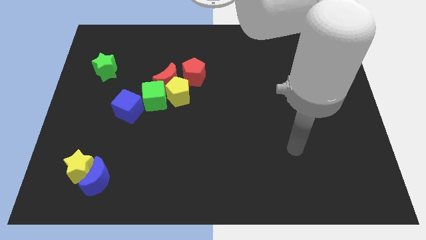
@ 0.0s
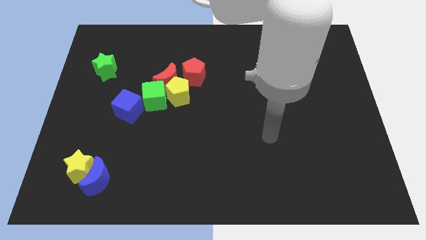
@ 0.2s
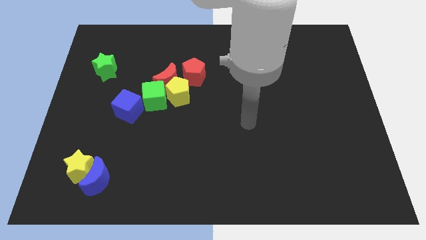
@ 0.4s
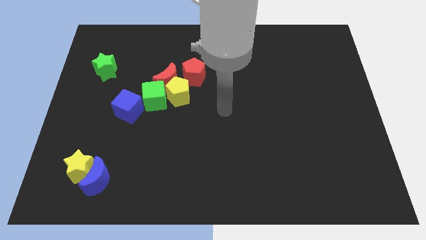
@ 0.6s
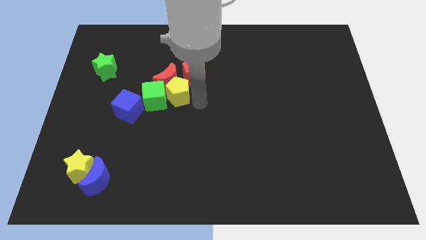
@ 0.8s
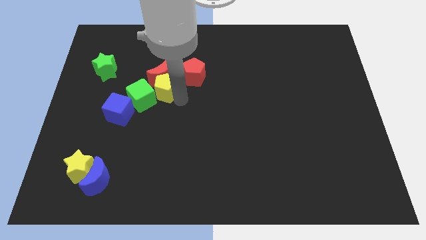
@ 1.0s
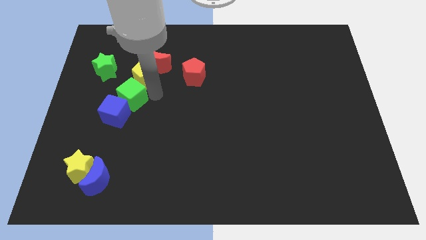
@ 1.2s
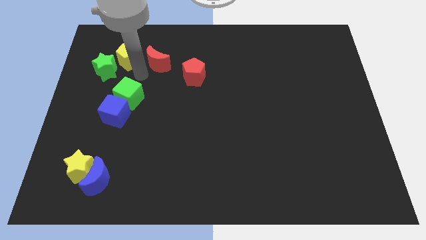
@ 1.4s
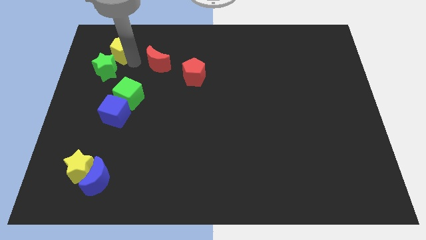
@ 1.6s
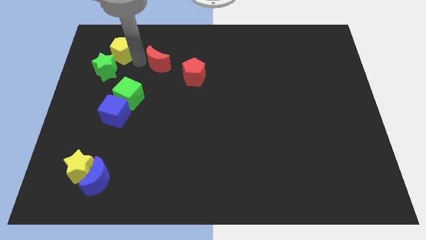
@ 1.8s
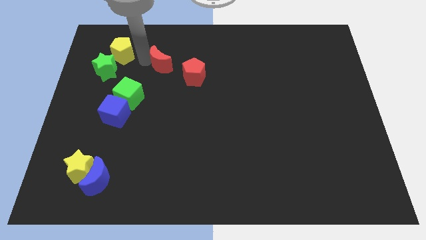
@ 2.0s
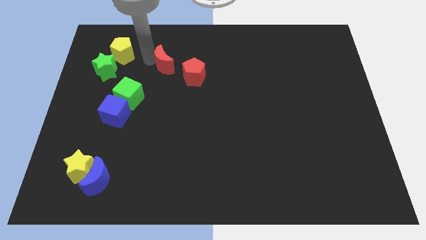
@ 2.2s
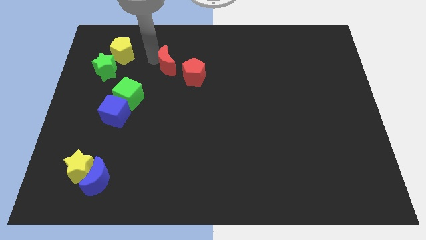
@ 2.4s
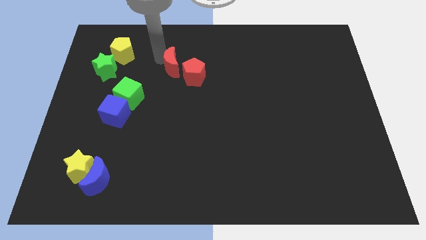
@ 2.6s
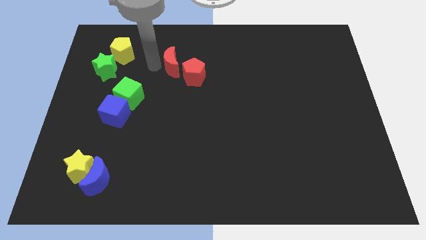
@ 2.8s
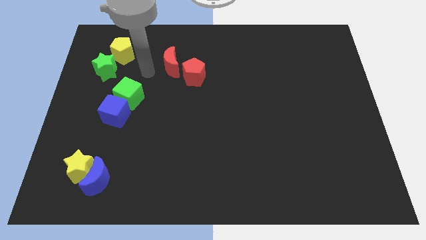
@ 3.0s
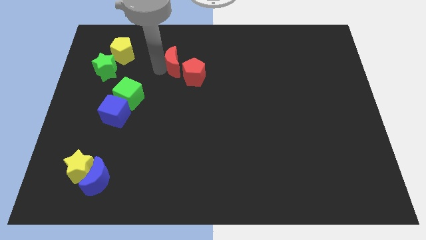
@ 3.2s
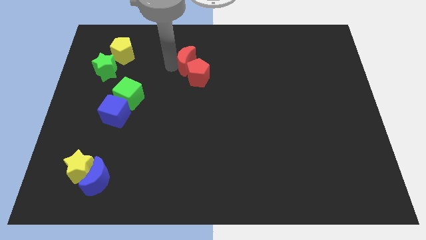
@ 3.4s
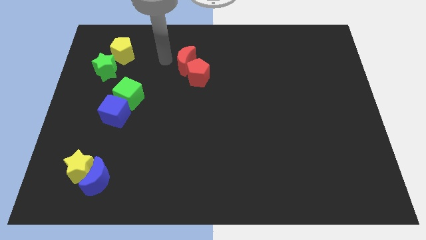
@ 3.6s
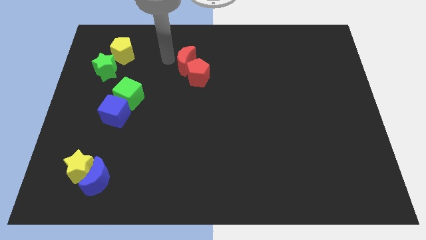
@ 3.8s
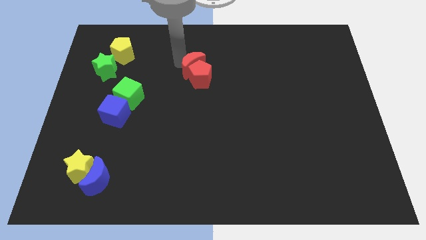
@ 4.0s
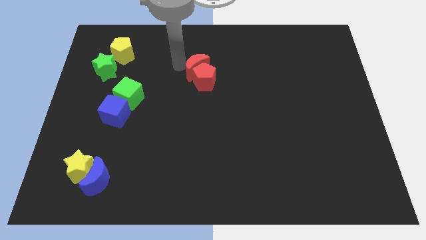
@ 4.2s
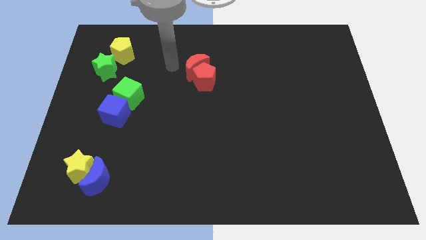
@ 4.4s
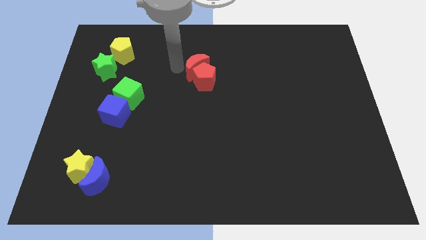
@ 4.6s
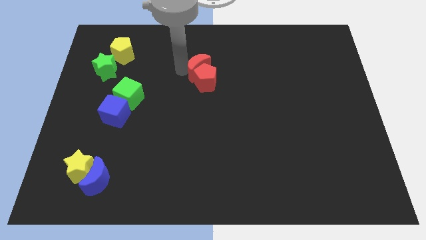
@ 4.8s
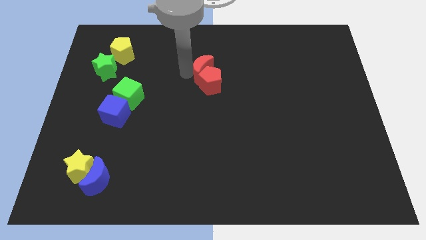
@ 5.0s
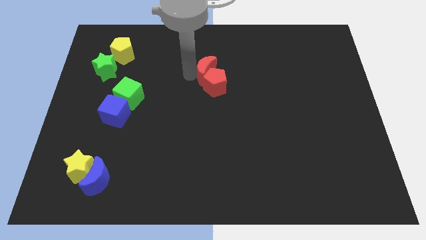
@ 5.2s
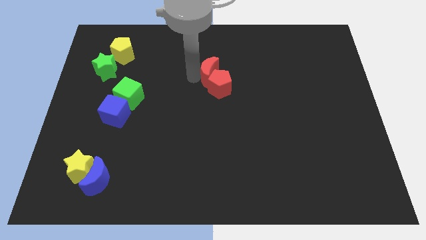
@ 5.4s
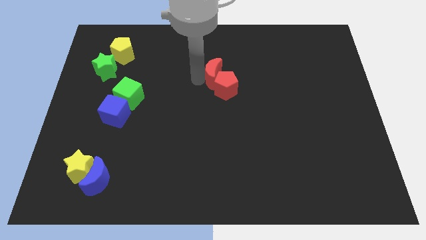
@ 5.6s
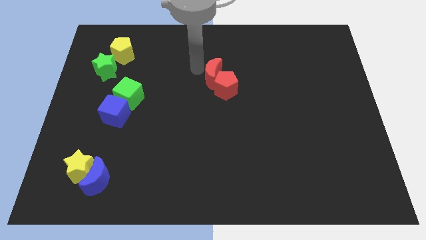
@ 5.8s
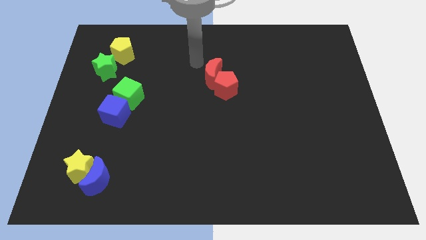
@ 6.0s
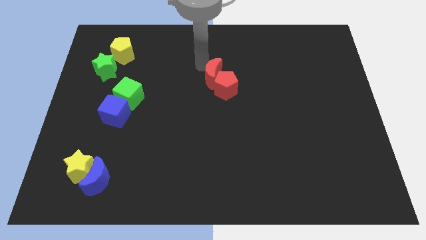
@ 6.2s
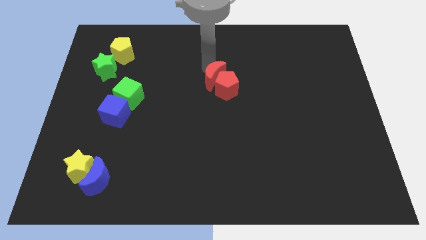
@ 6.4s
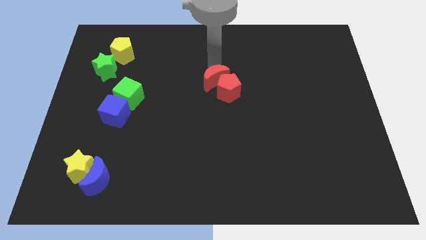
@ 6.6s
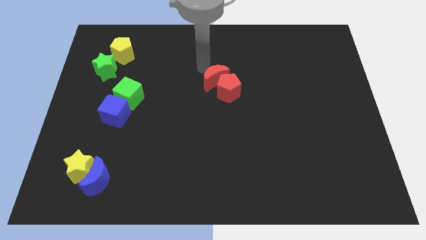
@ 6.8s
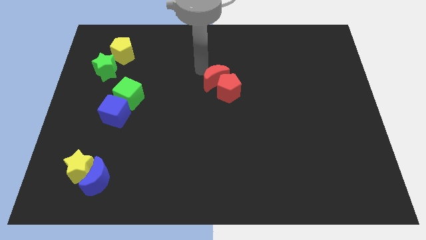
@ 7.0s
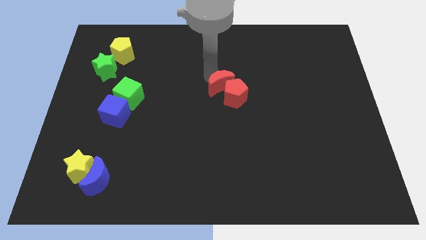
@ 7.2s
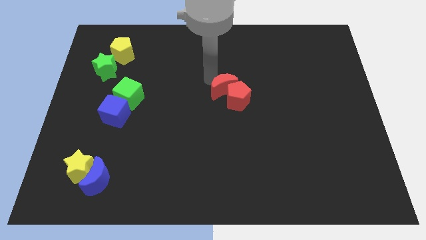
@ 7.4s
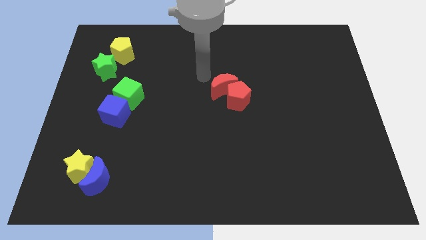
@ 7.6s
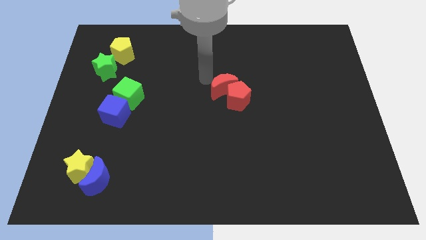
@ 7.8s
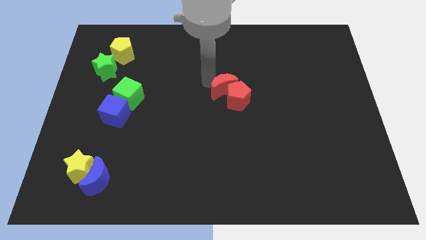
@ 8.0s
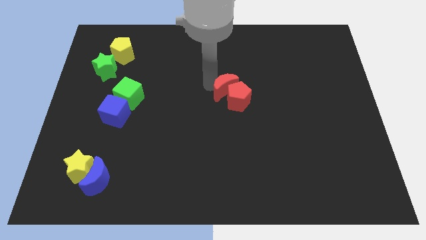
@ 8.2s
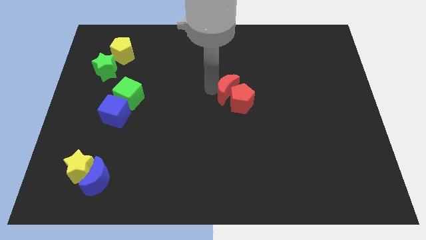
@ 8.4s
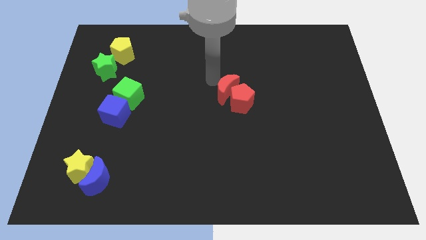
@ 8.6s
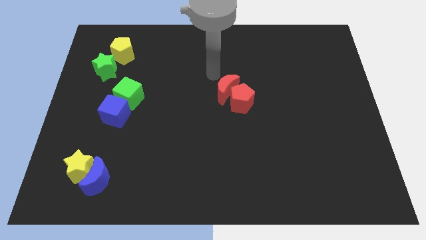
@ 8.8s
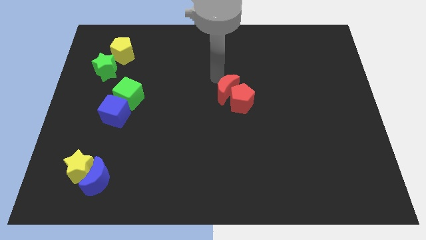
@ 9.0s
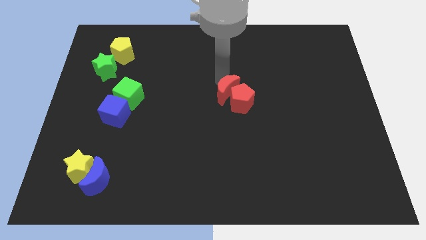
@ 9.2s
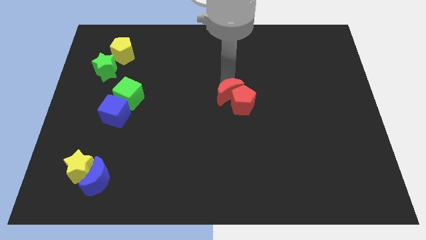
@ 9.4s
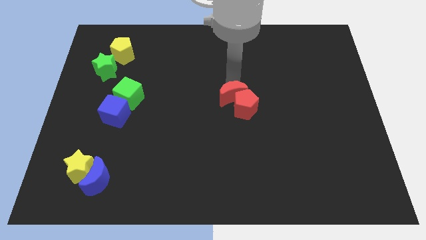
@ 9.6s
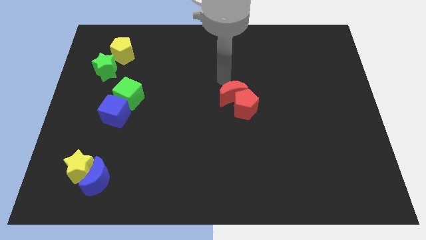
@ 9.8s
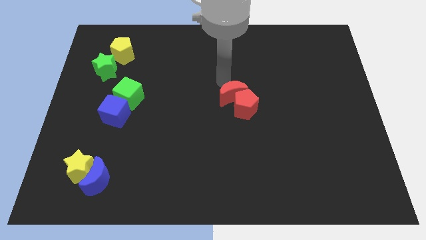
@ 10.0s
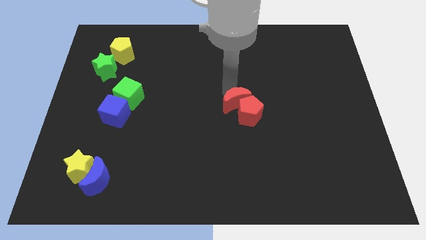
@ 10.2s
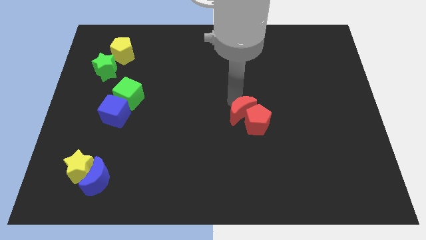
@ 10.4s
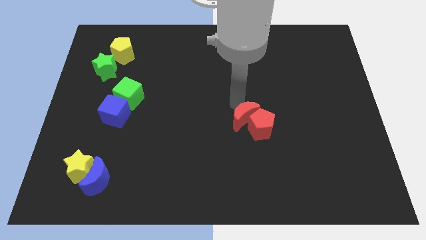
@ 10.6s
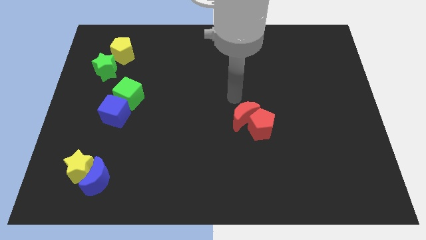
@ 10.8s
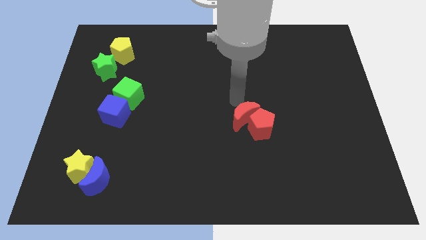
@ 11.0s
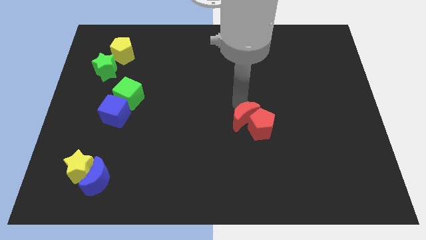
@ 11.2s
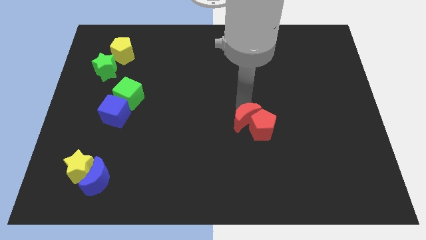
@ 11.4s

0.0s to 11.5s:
move the red moon down and then to the right

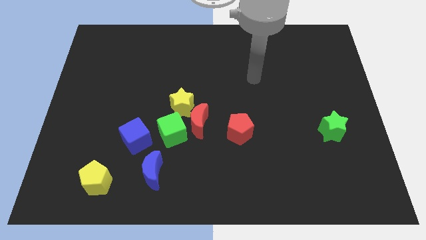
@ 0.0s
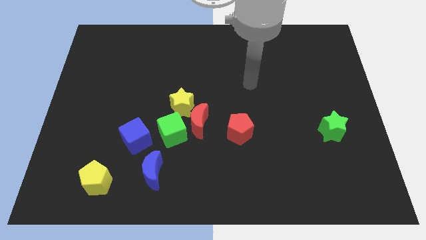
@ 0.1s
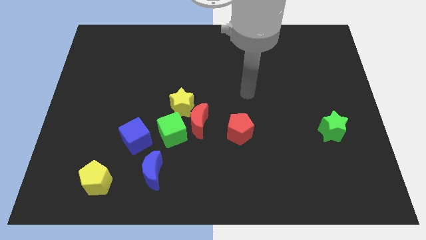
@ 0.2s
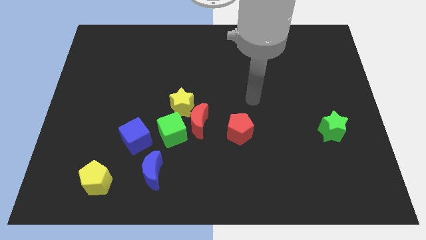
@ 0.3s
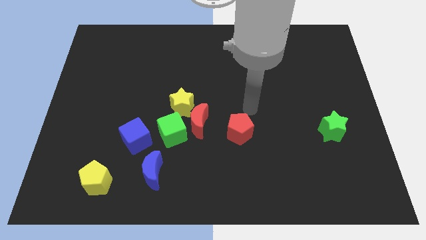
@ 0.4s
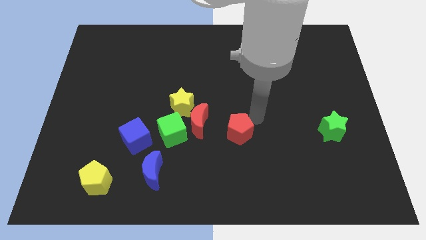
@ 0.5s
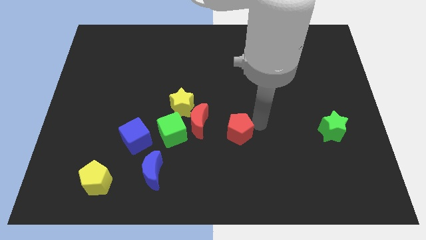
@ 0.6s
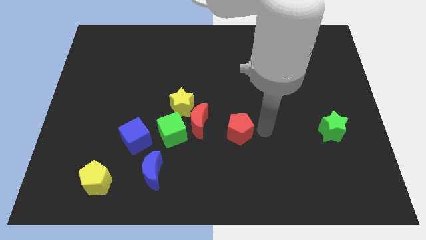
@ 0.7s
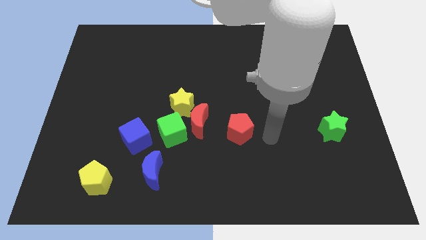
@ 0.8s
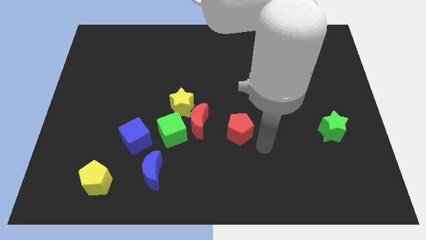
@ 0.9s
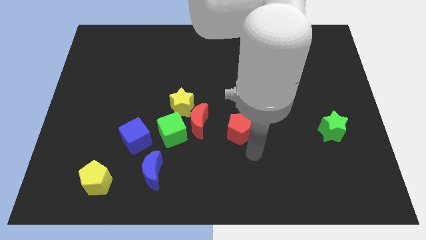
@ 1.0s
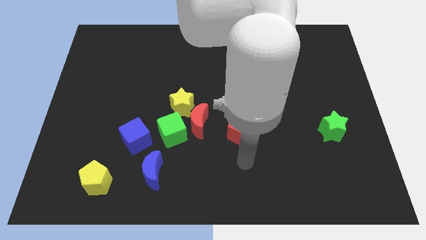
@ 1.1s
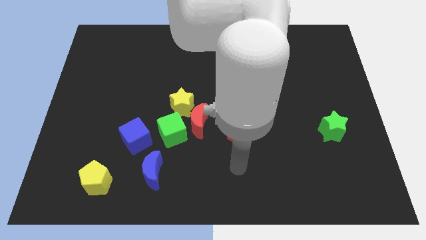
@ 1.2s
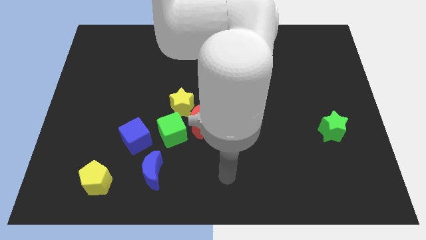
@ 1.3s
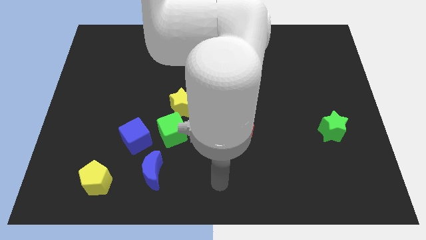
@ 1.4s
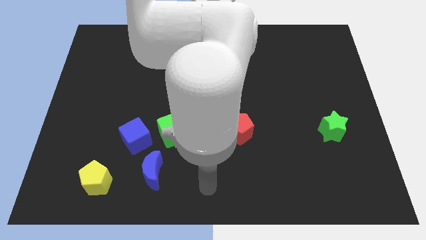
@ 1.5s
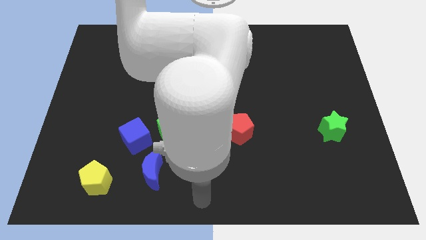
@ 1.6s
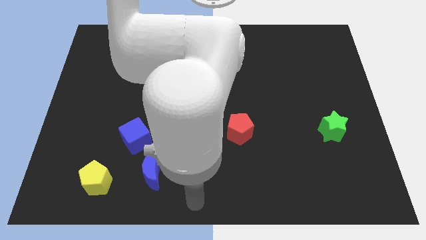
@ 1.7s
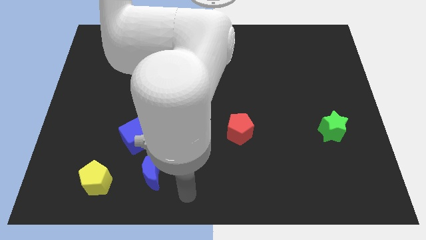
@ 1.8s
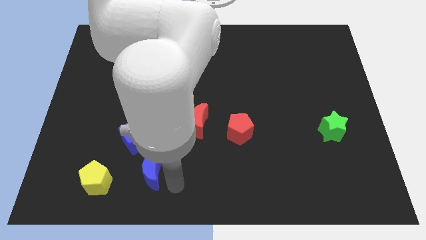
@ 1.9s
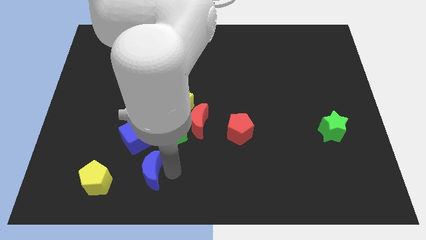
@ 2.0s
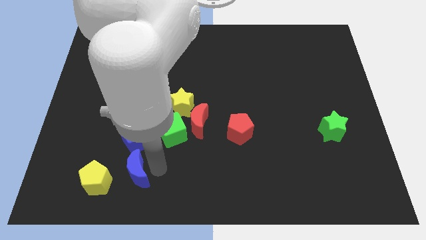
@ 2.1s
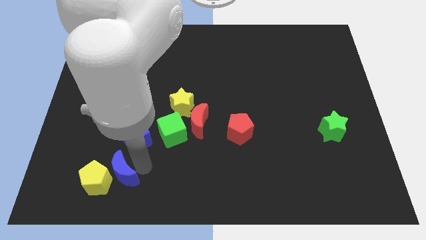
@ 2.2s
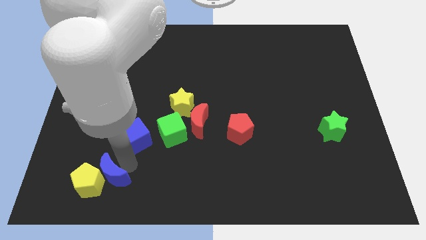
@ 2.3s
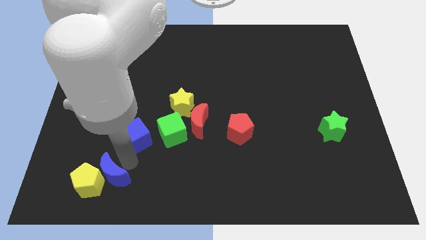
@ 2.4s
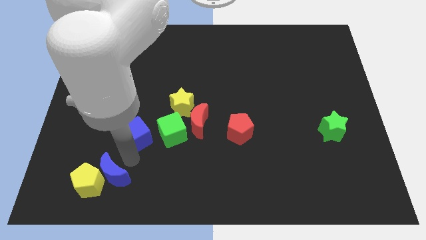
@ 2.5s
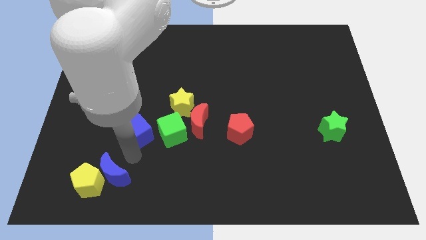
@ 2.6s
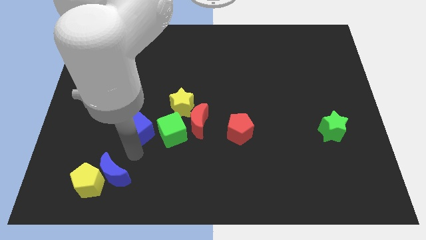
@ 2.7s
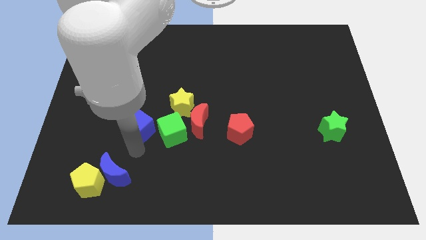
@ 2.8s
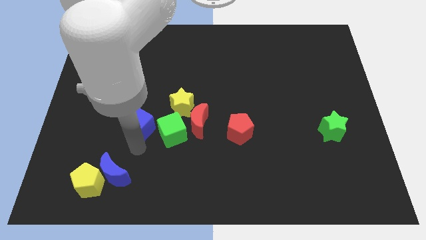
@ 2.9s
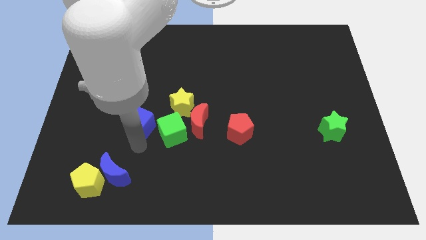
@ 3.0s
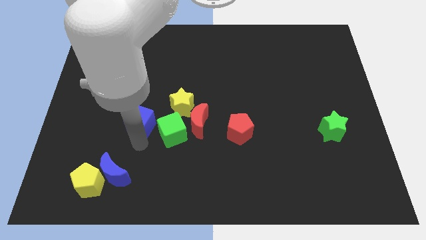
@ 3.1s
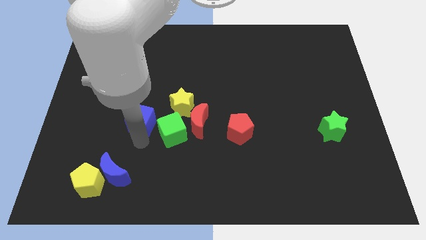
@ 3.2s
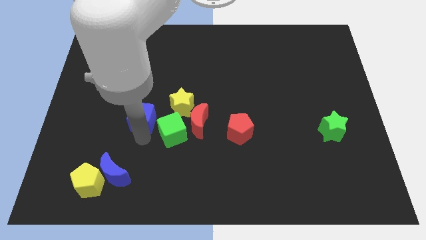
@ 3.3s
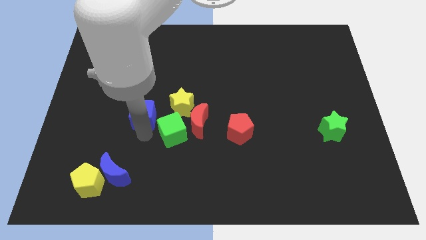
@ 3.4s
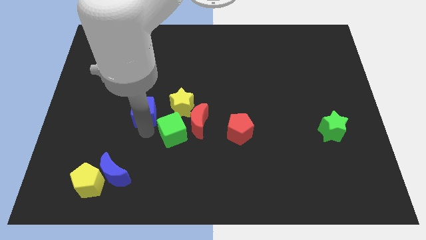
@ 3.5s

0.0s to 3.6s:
push the blue cube a little bit upwards
